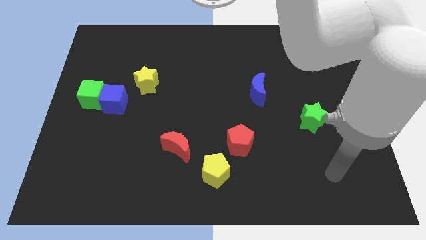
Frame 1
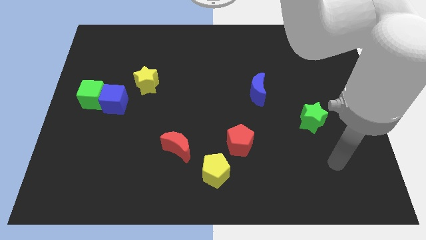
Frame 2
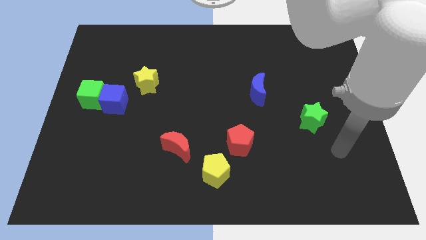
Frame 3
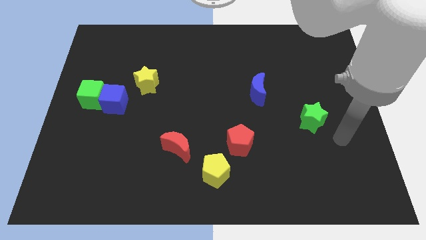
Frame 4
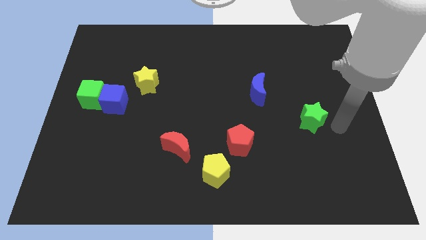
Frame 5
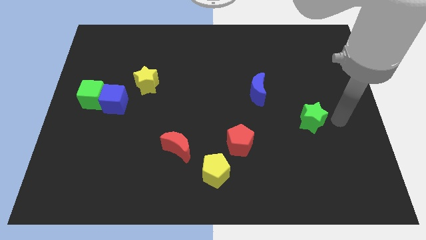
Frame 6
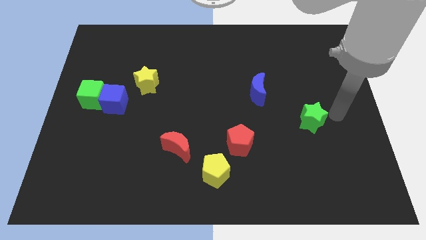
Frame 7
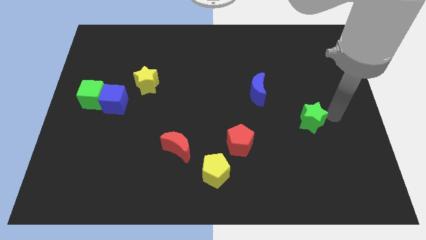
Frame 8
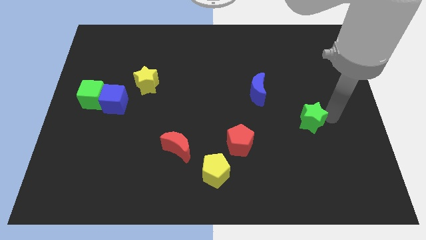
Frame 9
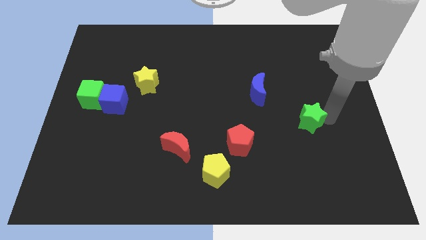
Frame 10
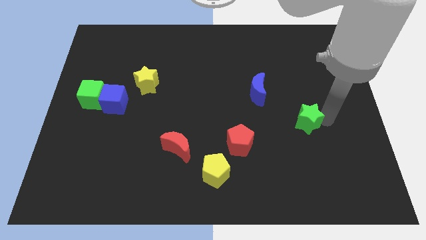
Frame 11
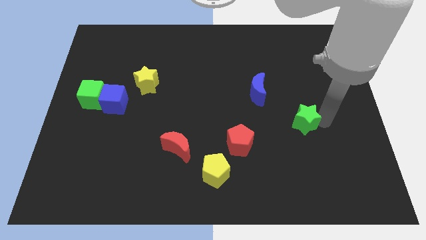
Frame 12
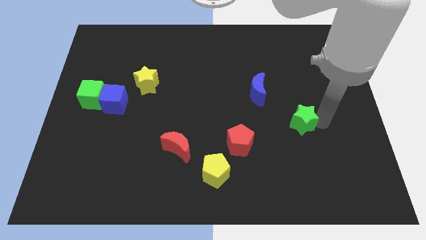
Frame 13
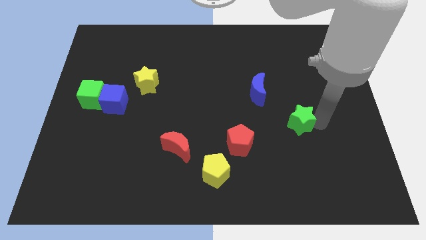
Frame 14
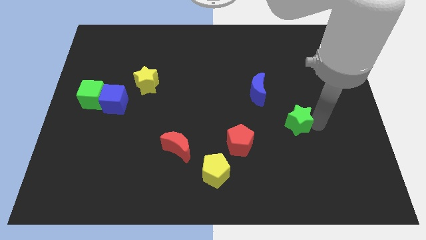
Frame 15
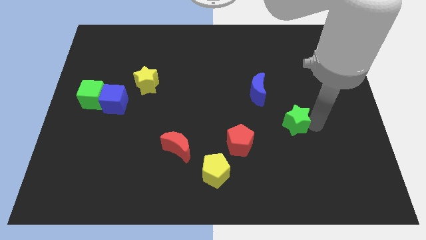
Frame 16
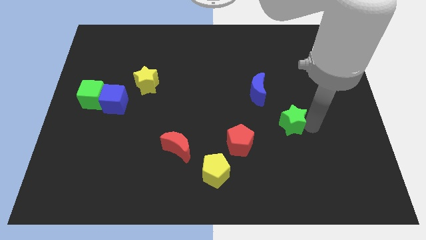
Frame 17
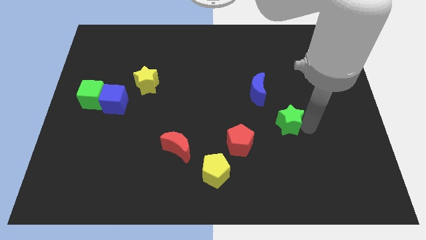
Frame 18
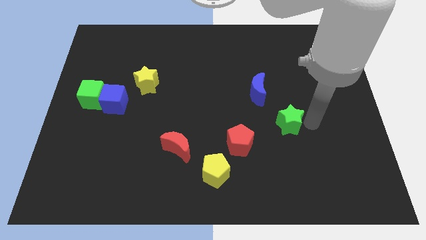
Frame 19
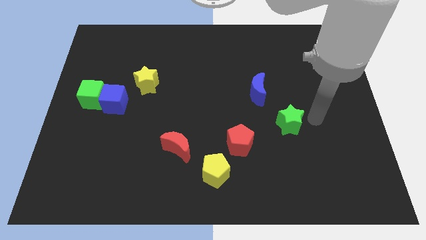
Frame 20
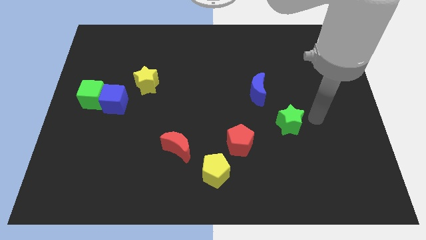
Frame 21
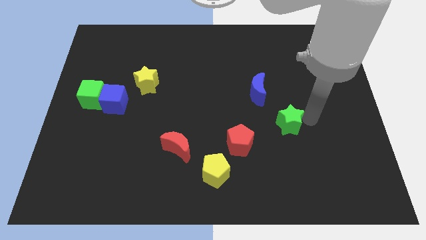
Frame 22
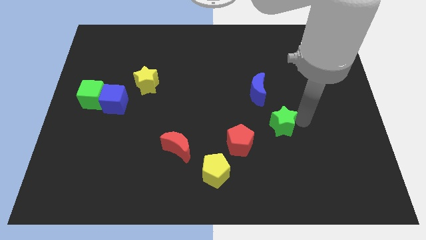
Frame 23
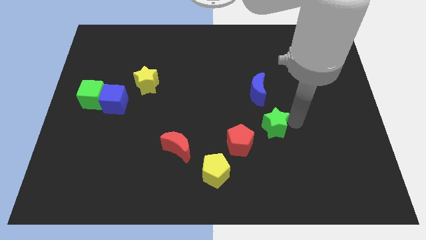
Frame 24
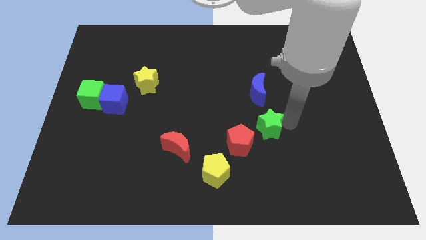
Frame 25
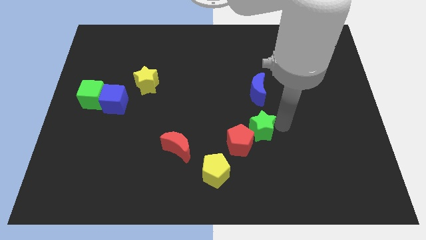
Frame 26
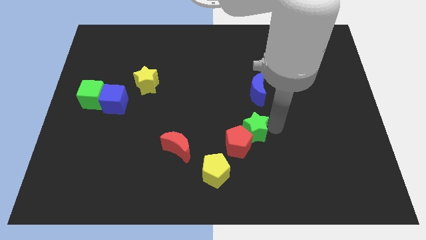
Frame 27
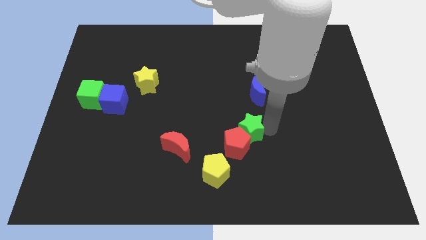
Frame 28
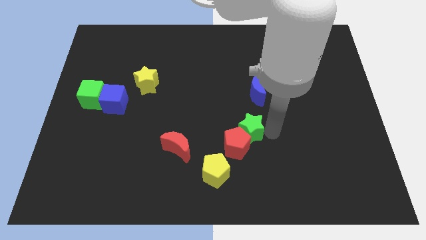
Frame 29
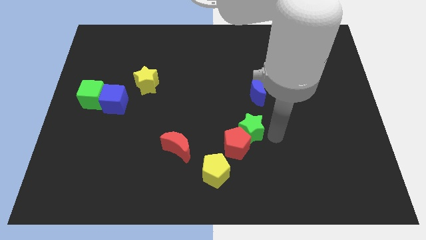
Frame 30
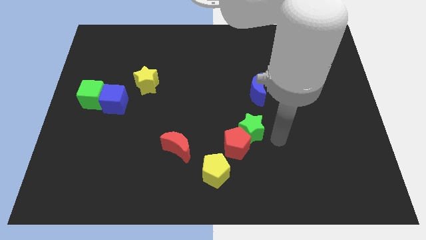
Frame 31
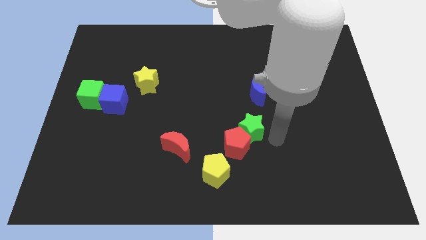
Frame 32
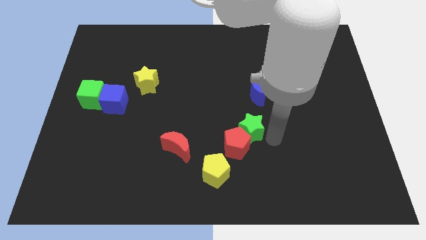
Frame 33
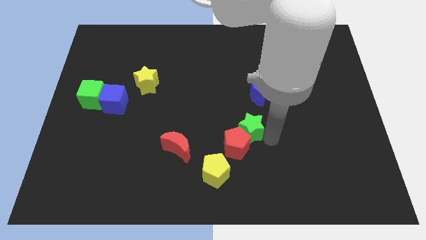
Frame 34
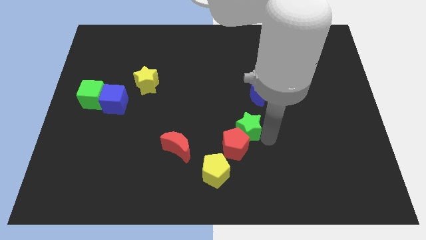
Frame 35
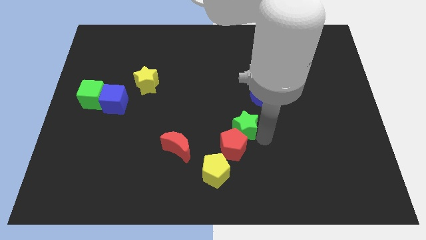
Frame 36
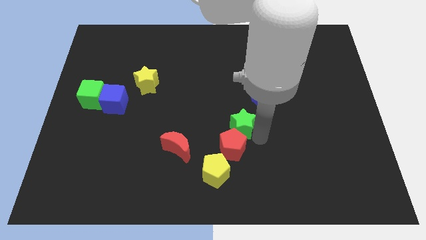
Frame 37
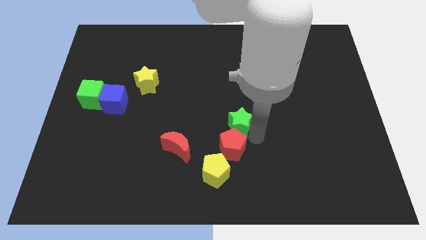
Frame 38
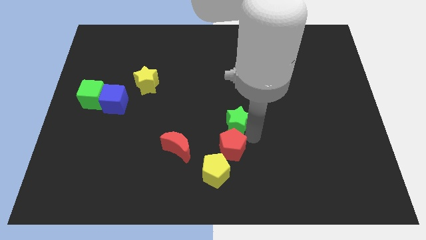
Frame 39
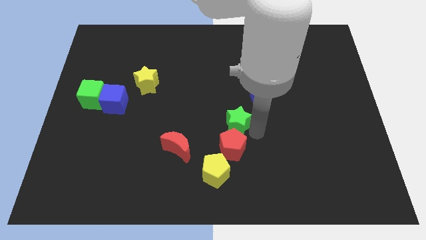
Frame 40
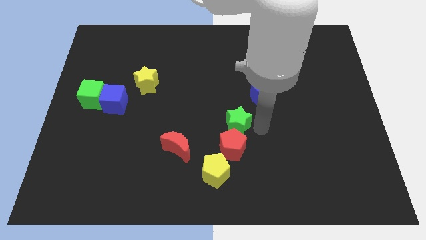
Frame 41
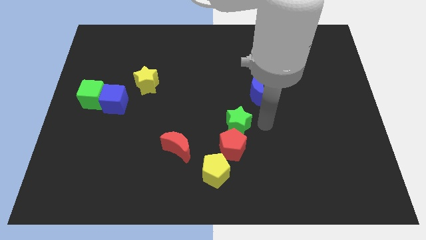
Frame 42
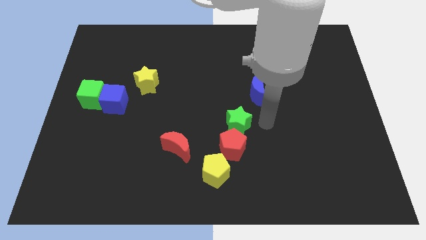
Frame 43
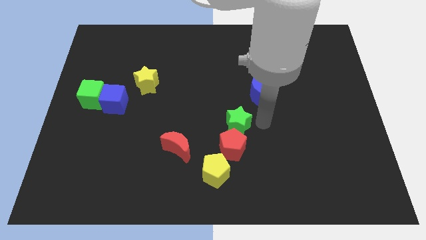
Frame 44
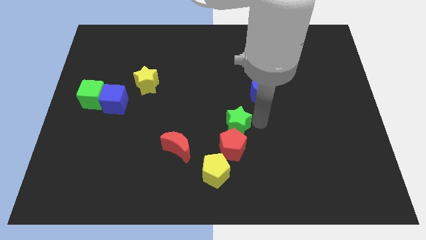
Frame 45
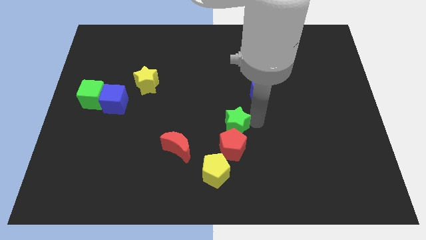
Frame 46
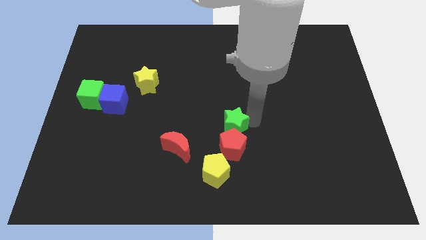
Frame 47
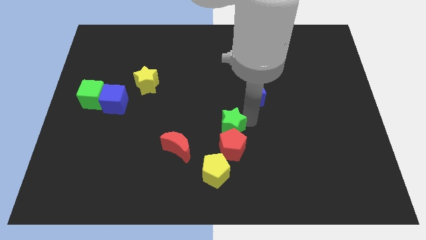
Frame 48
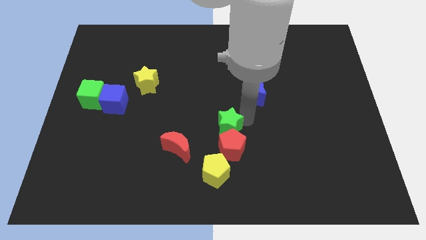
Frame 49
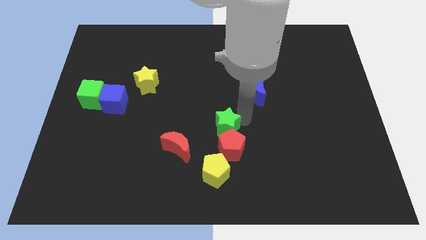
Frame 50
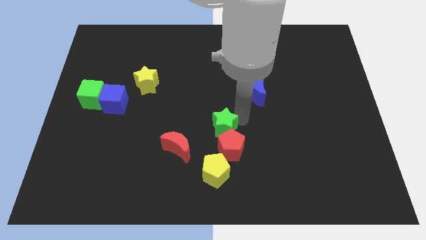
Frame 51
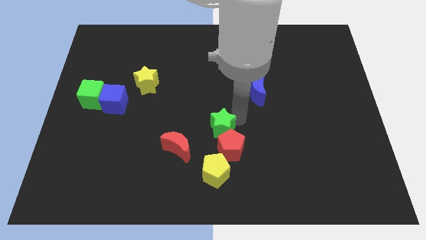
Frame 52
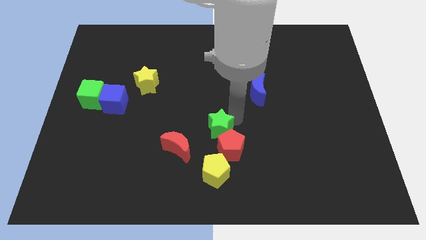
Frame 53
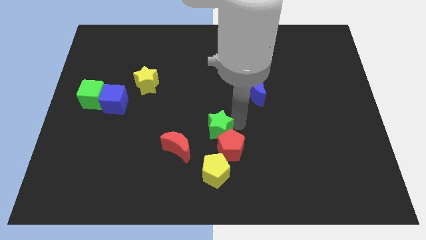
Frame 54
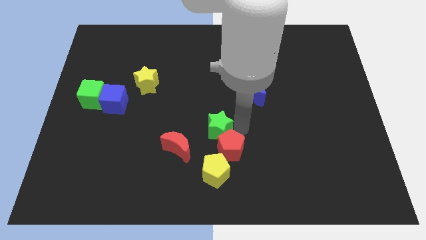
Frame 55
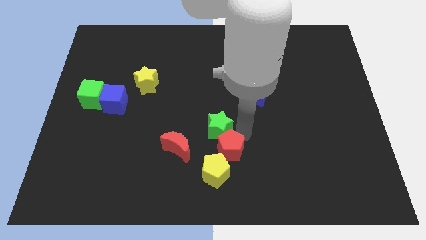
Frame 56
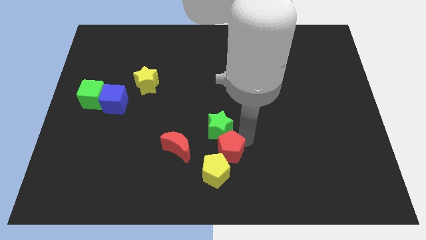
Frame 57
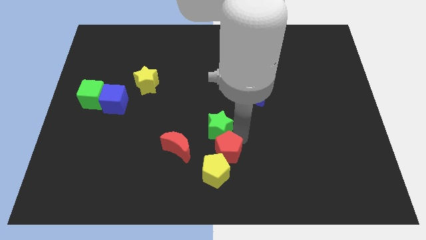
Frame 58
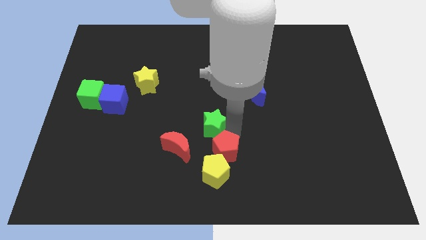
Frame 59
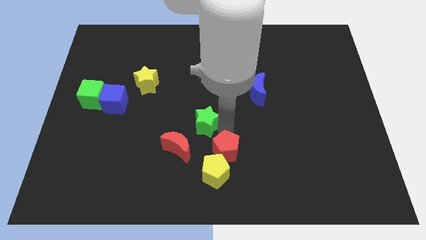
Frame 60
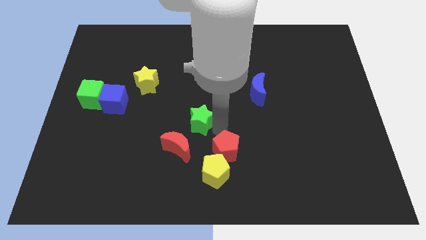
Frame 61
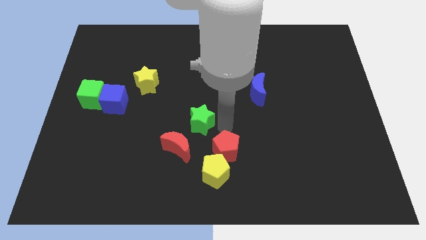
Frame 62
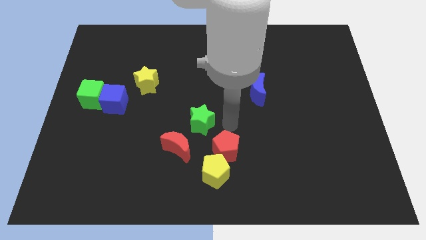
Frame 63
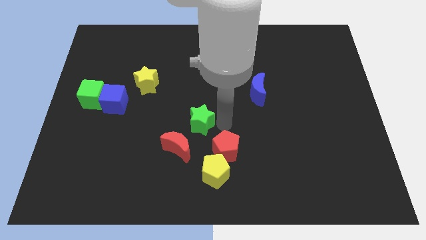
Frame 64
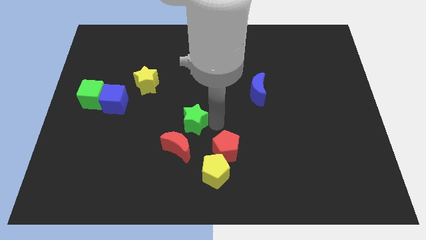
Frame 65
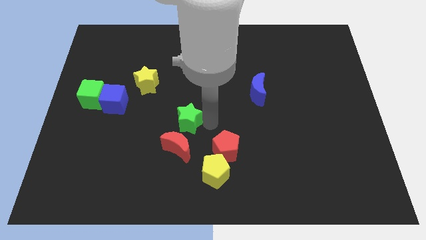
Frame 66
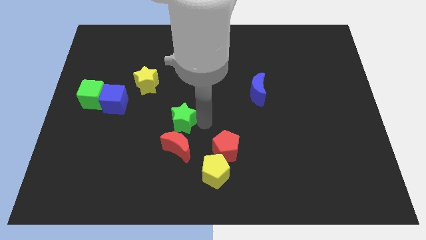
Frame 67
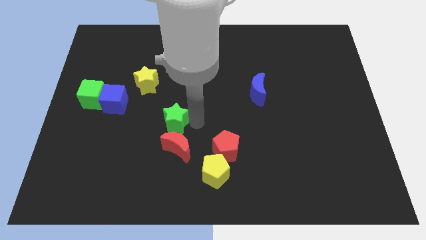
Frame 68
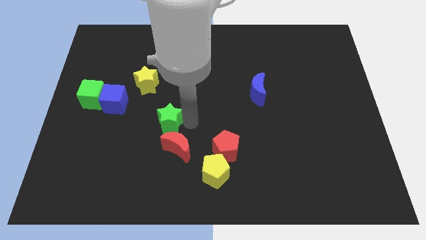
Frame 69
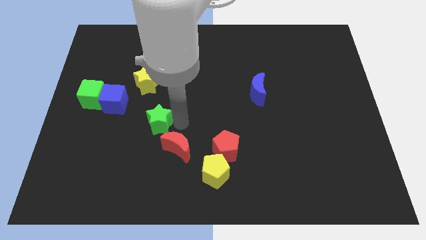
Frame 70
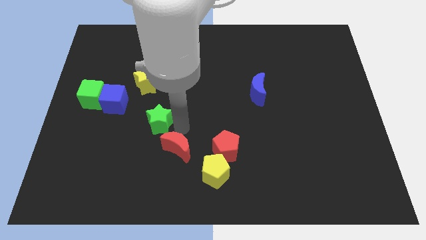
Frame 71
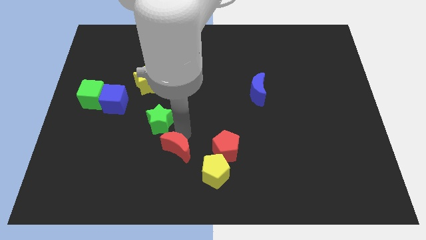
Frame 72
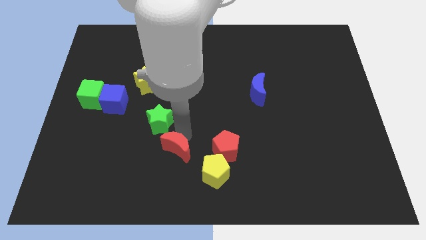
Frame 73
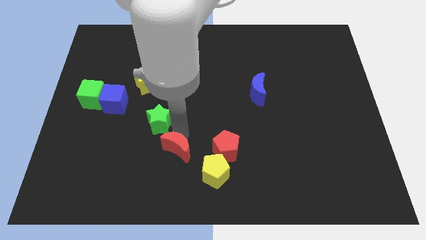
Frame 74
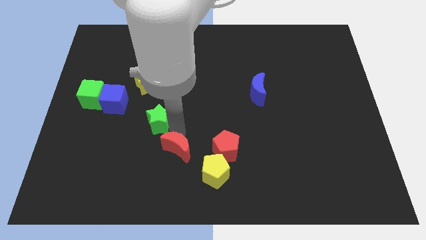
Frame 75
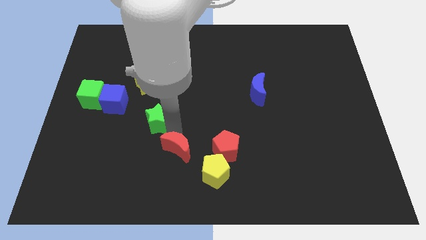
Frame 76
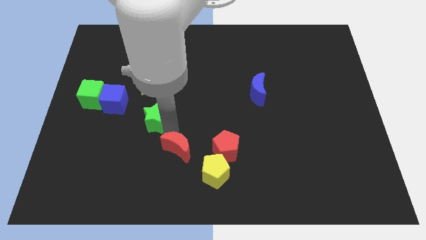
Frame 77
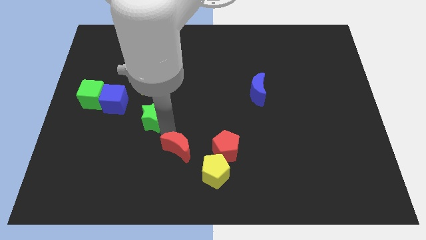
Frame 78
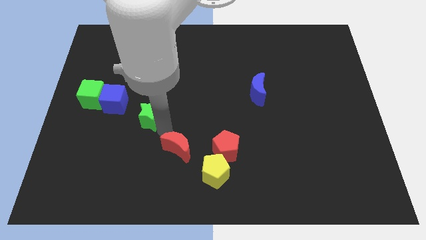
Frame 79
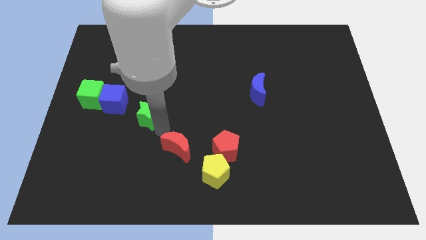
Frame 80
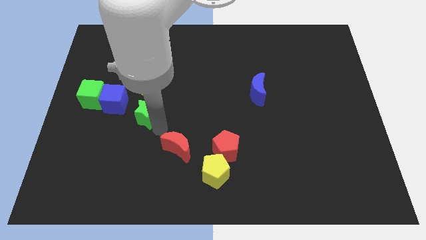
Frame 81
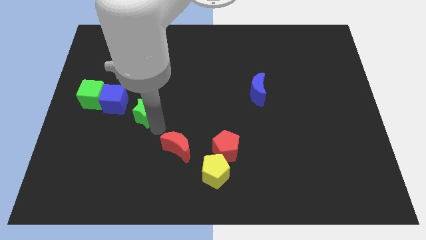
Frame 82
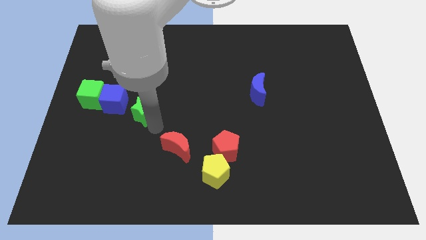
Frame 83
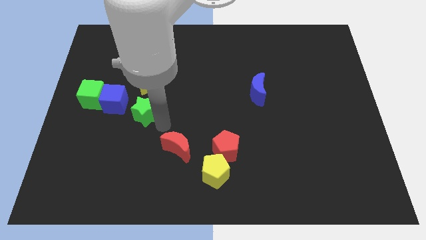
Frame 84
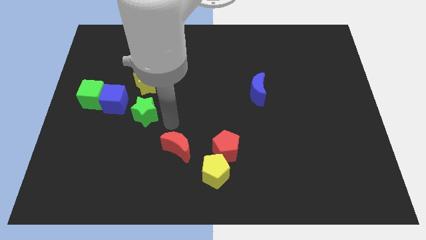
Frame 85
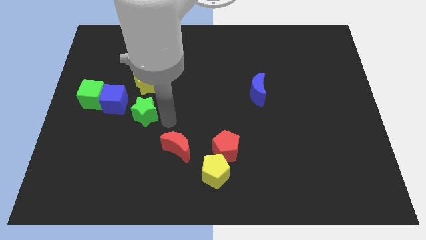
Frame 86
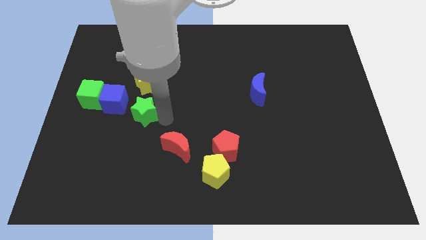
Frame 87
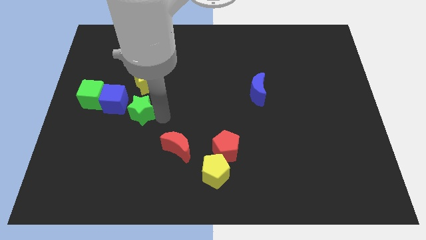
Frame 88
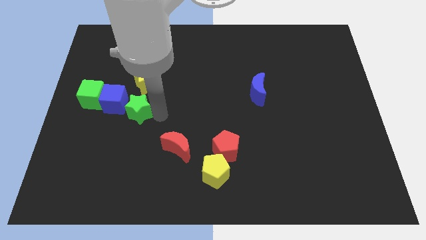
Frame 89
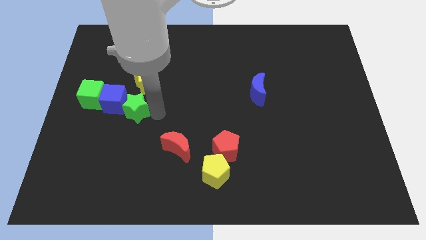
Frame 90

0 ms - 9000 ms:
slide the green star towards the blue cube
